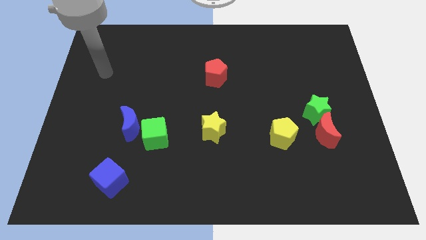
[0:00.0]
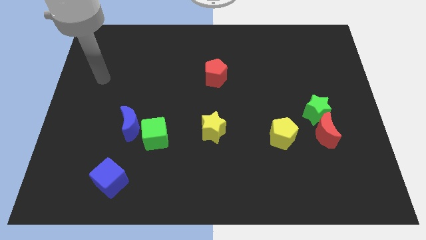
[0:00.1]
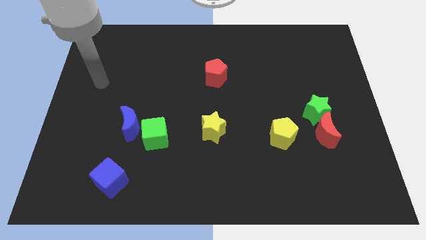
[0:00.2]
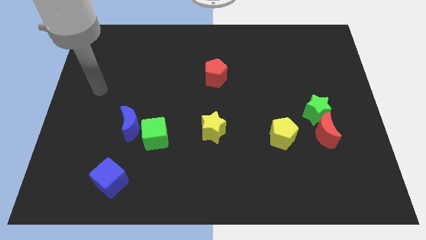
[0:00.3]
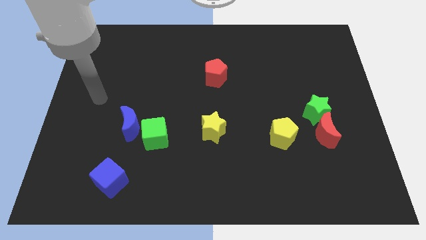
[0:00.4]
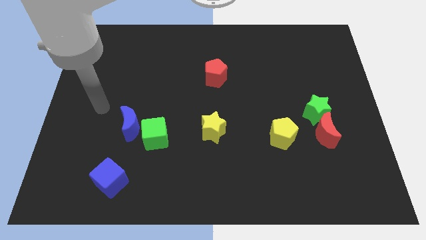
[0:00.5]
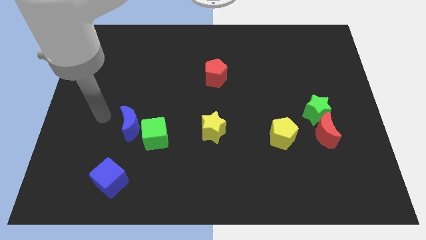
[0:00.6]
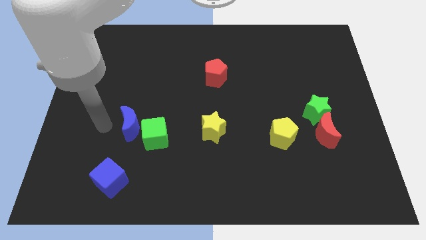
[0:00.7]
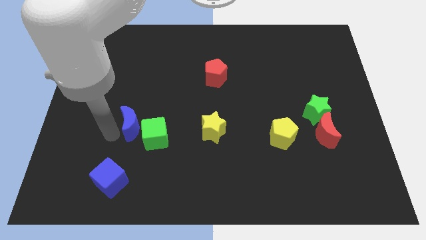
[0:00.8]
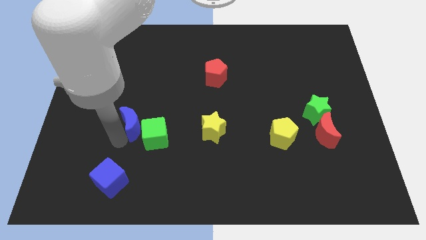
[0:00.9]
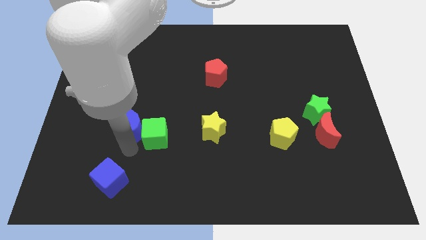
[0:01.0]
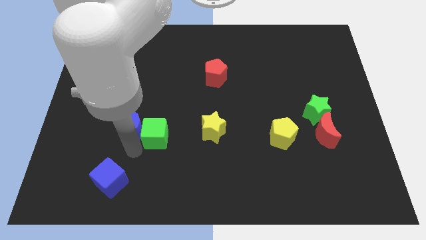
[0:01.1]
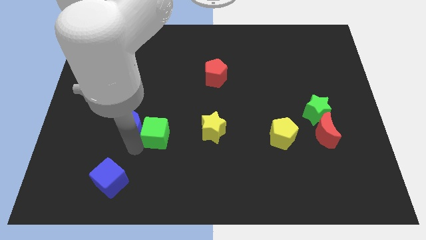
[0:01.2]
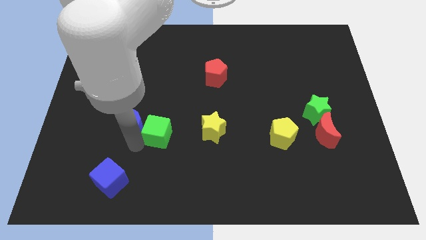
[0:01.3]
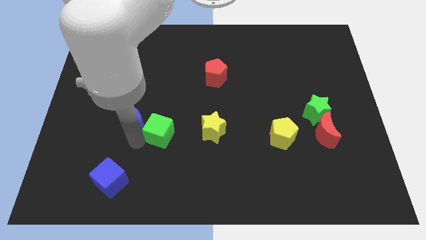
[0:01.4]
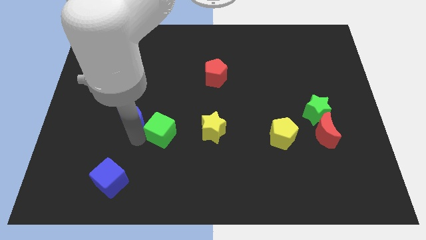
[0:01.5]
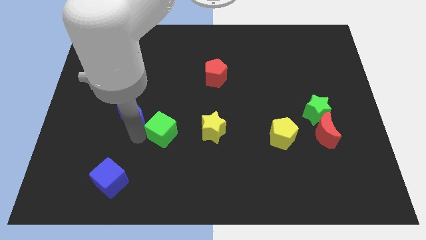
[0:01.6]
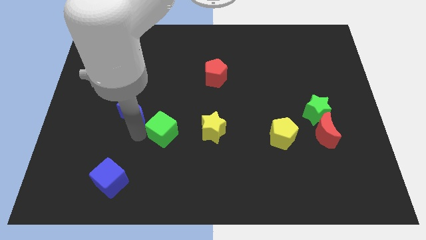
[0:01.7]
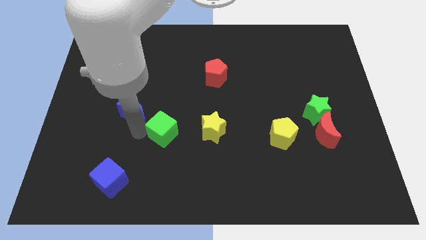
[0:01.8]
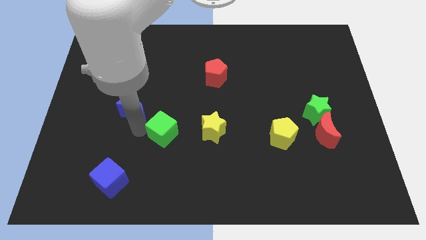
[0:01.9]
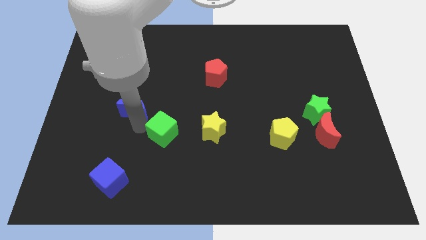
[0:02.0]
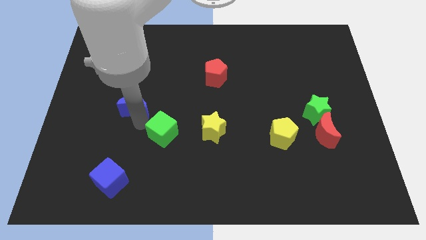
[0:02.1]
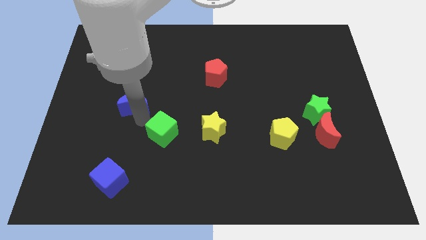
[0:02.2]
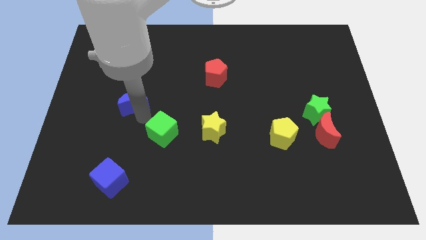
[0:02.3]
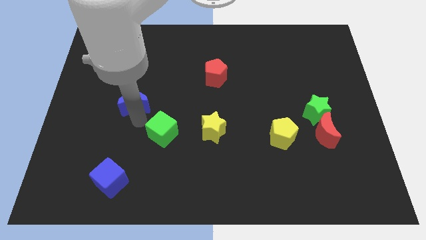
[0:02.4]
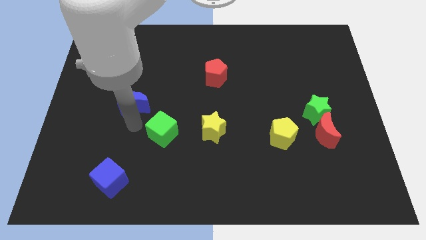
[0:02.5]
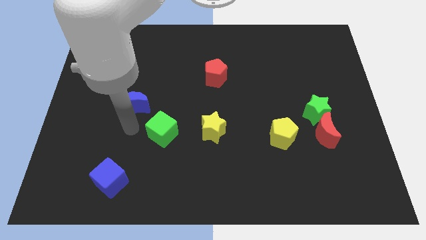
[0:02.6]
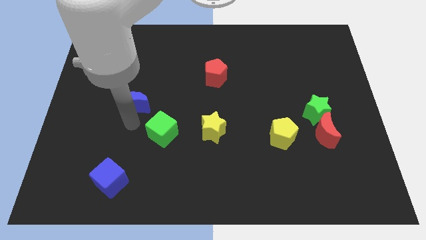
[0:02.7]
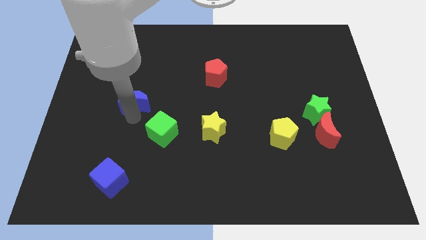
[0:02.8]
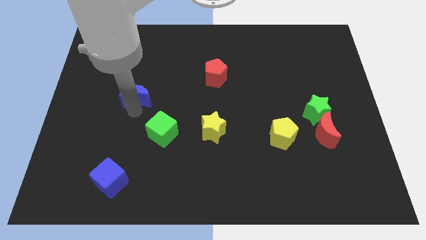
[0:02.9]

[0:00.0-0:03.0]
slide the blue moon upwards somewhat

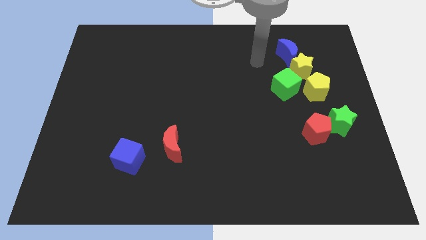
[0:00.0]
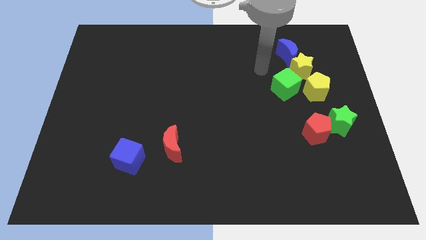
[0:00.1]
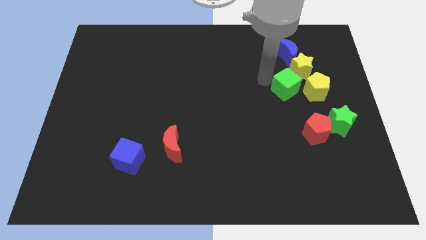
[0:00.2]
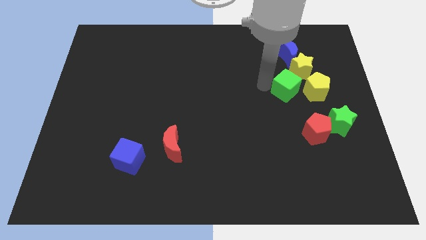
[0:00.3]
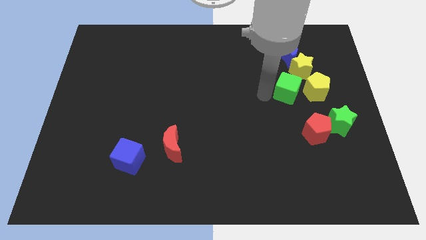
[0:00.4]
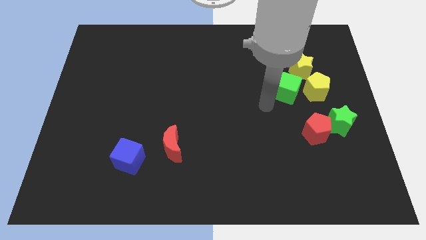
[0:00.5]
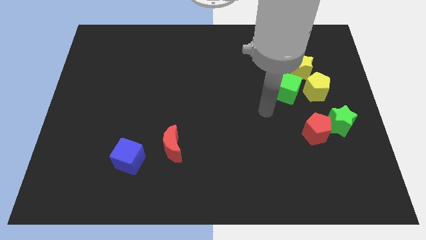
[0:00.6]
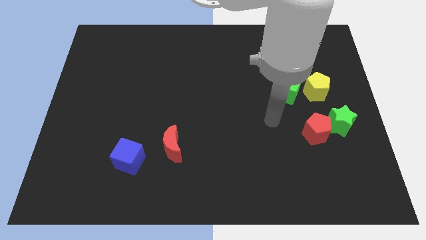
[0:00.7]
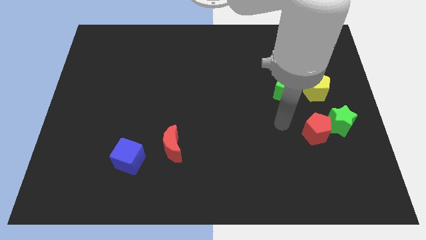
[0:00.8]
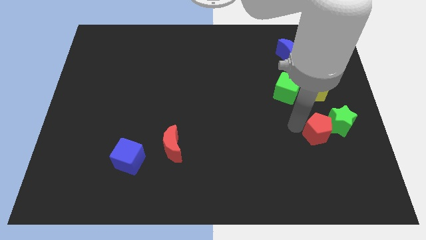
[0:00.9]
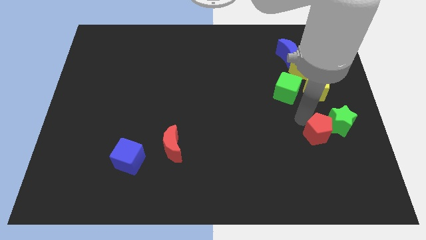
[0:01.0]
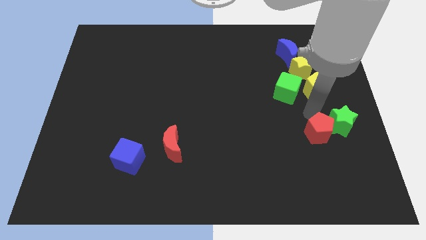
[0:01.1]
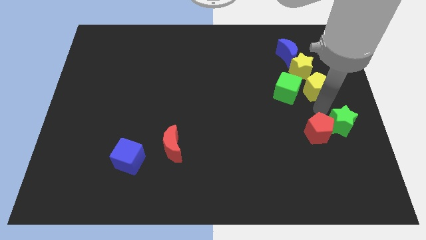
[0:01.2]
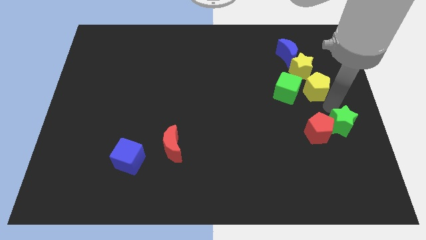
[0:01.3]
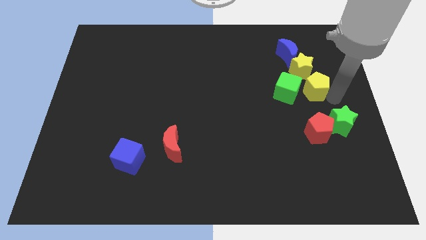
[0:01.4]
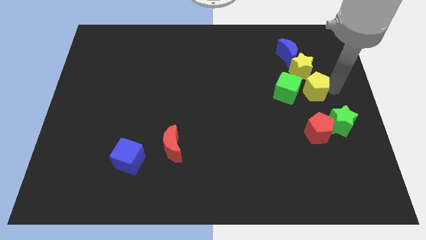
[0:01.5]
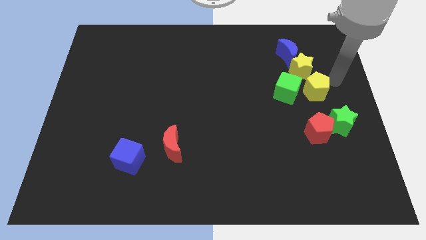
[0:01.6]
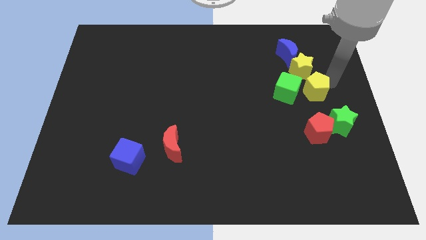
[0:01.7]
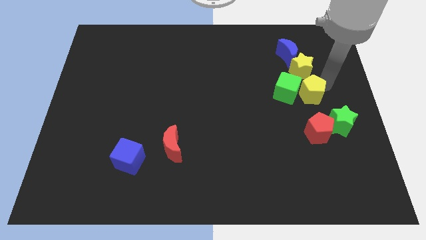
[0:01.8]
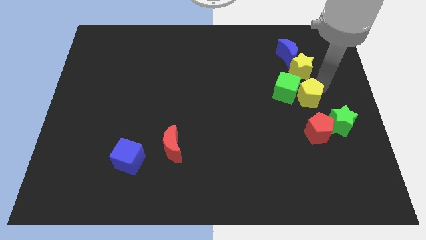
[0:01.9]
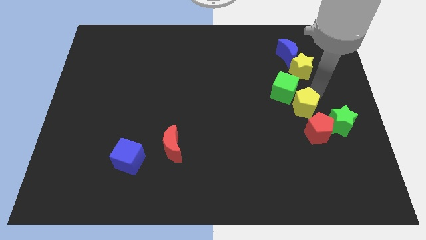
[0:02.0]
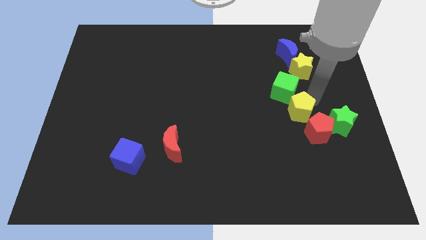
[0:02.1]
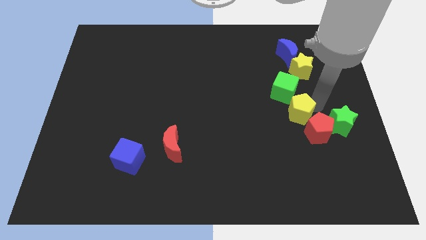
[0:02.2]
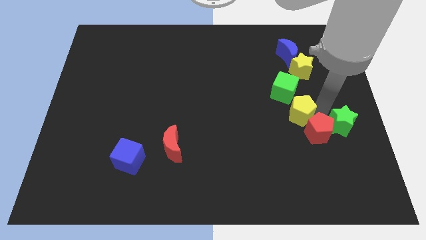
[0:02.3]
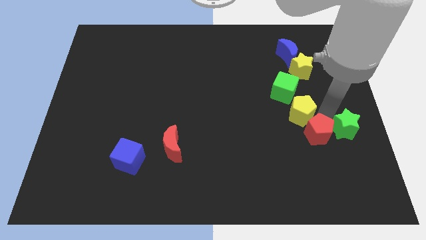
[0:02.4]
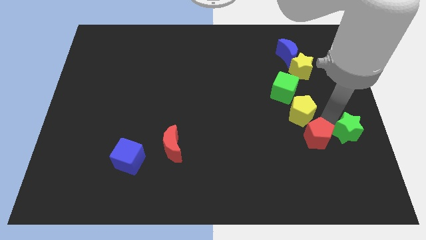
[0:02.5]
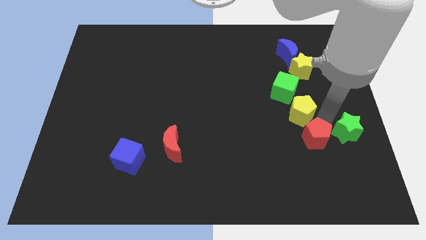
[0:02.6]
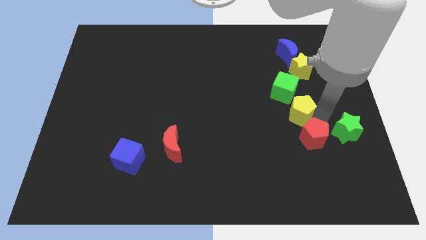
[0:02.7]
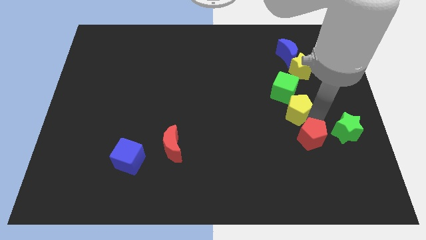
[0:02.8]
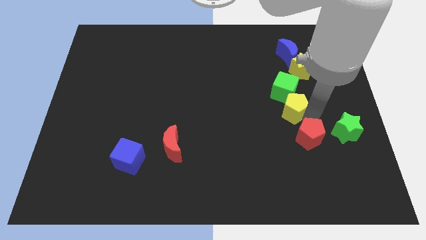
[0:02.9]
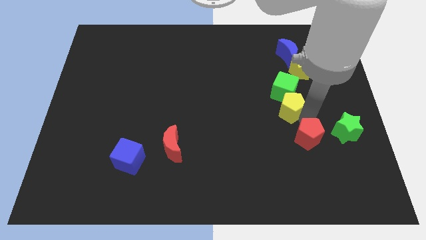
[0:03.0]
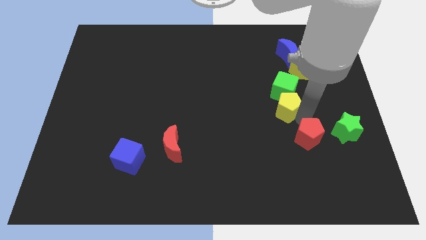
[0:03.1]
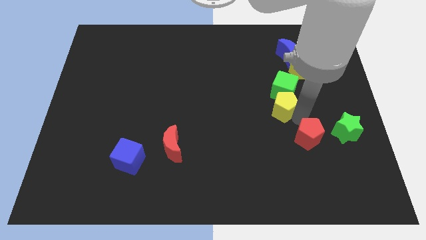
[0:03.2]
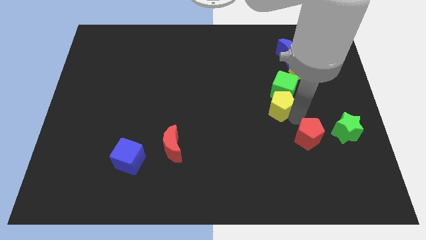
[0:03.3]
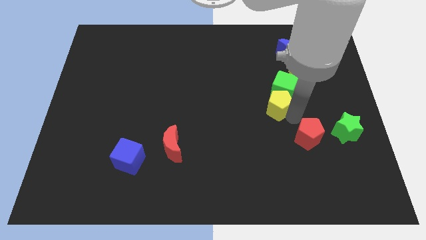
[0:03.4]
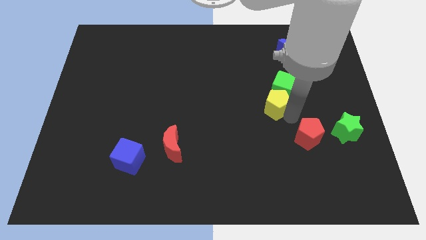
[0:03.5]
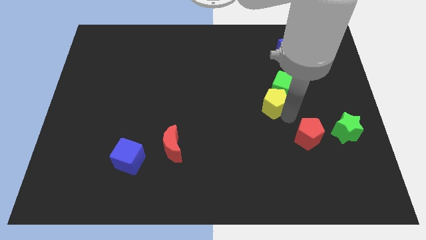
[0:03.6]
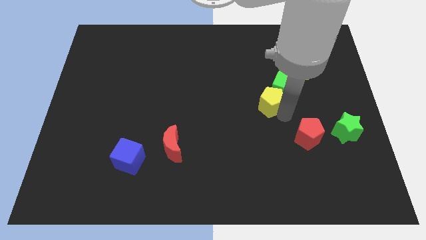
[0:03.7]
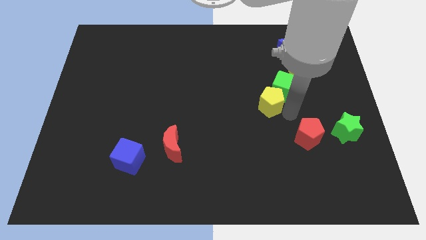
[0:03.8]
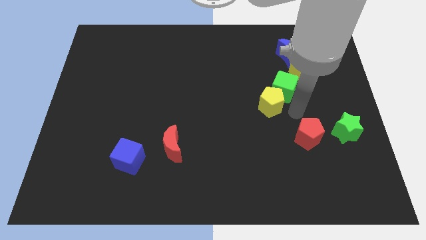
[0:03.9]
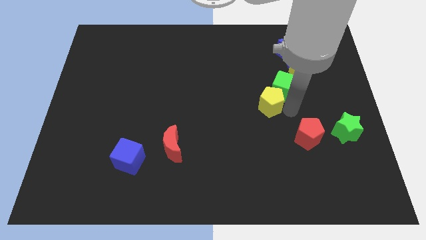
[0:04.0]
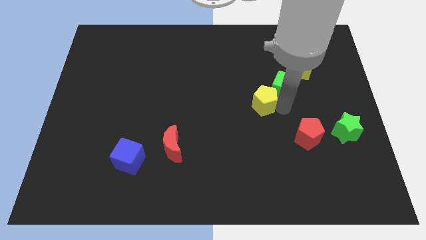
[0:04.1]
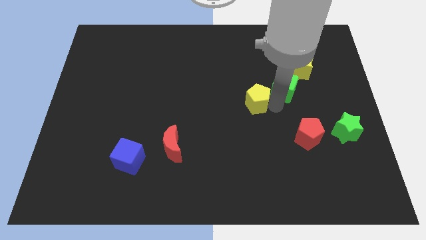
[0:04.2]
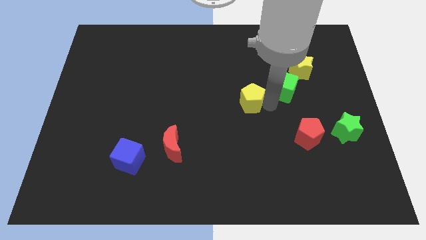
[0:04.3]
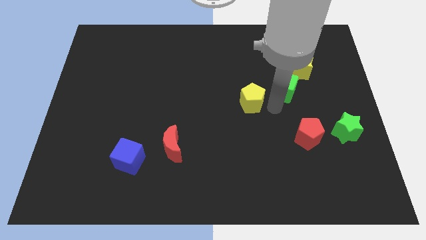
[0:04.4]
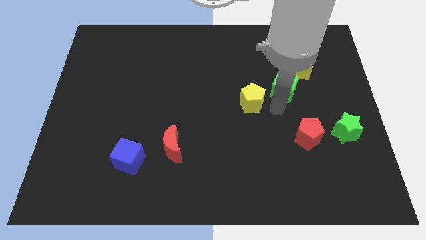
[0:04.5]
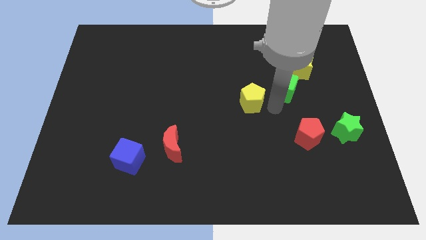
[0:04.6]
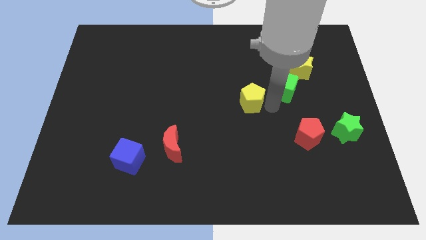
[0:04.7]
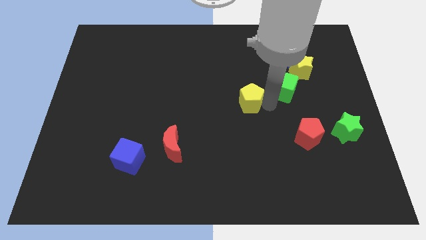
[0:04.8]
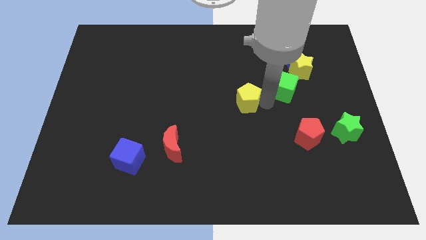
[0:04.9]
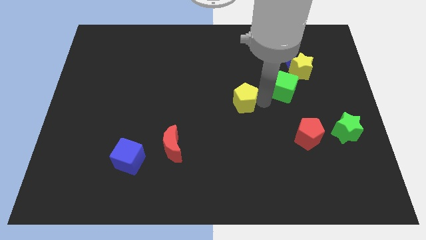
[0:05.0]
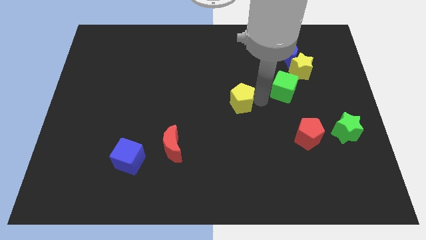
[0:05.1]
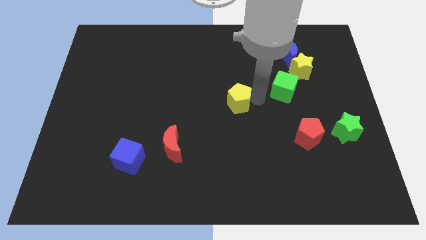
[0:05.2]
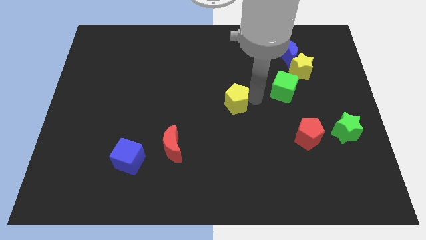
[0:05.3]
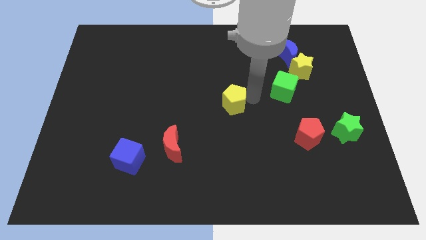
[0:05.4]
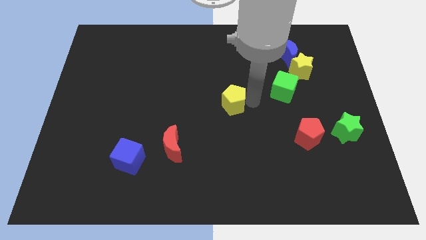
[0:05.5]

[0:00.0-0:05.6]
slide the yellow pentagon left
